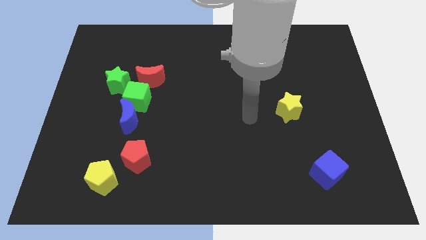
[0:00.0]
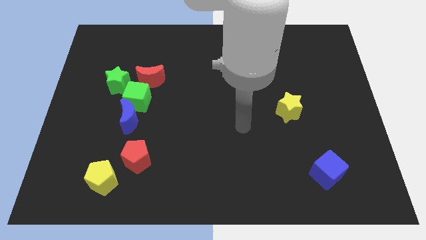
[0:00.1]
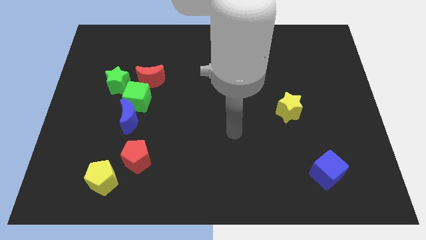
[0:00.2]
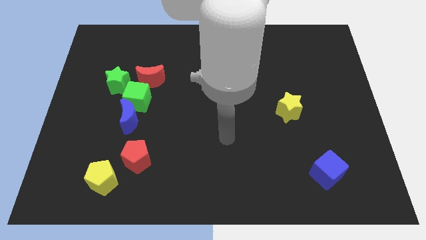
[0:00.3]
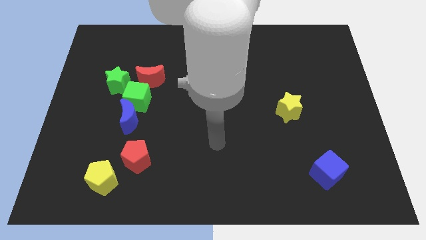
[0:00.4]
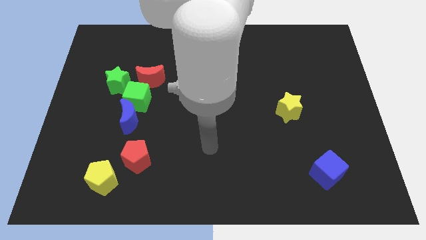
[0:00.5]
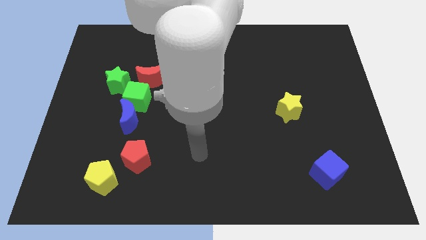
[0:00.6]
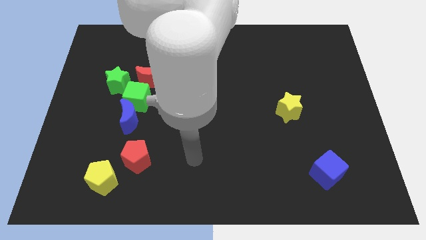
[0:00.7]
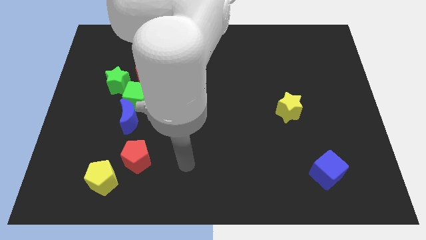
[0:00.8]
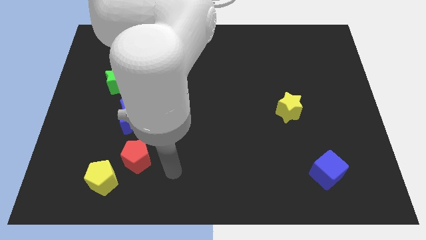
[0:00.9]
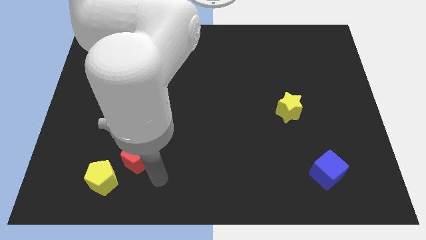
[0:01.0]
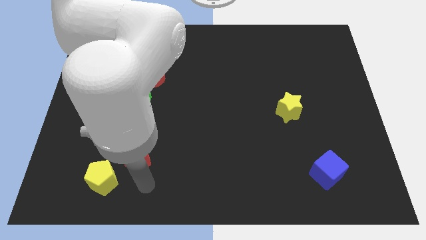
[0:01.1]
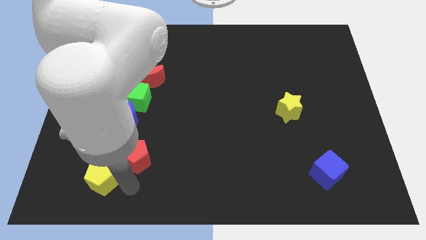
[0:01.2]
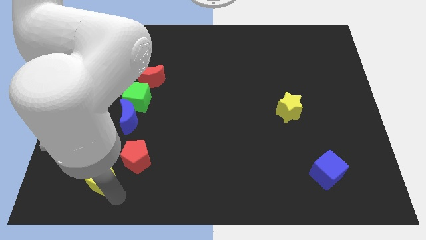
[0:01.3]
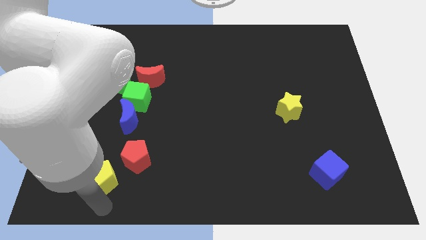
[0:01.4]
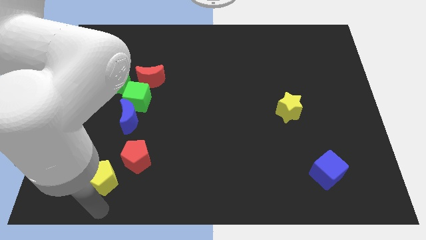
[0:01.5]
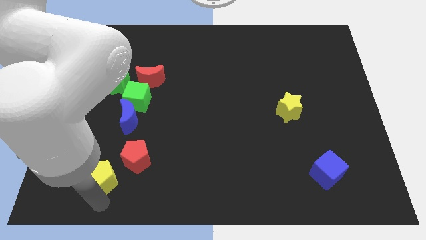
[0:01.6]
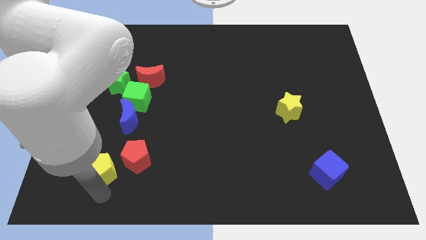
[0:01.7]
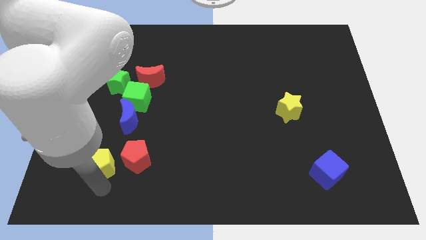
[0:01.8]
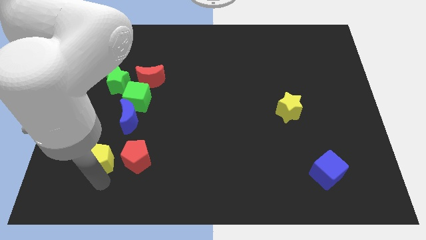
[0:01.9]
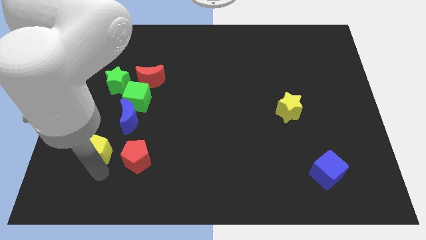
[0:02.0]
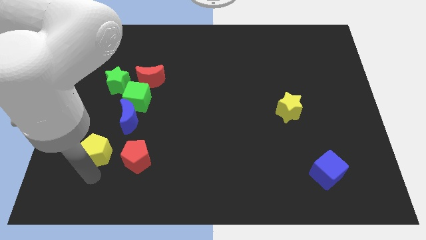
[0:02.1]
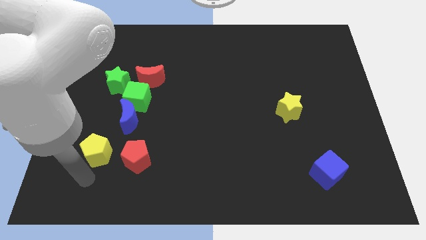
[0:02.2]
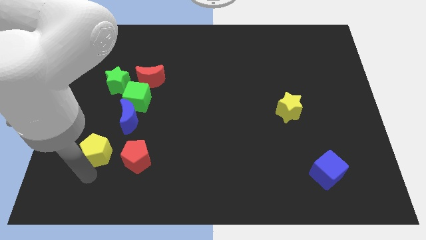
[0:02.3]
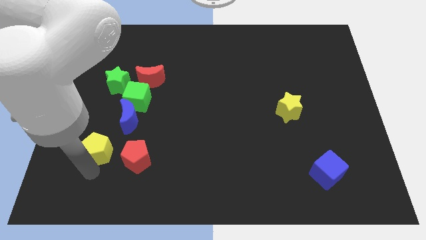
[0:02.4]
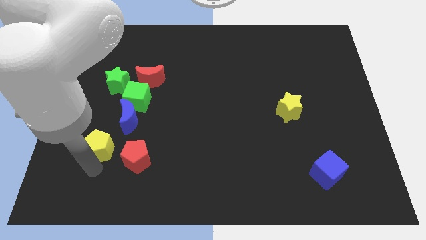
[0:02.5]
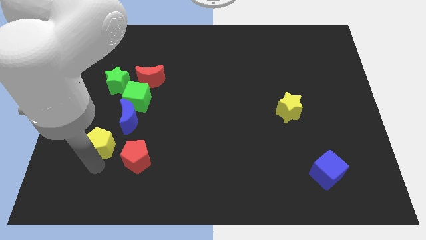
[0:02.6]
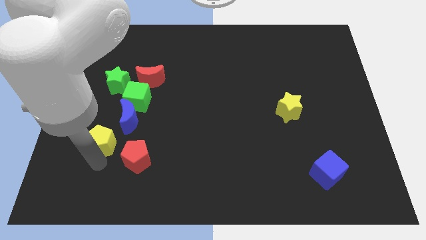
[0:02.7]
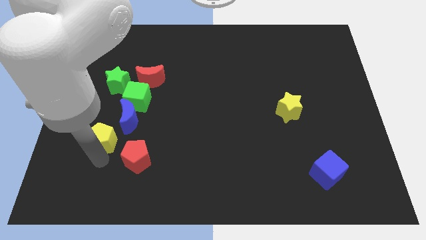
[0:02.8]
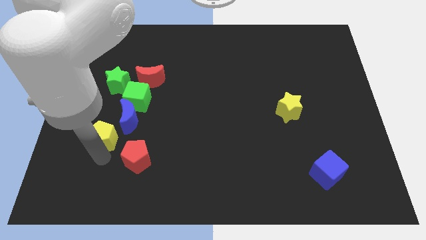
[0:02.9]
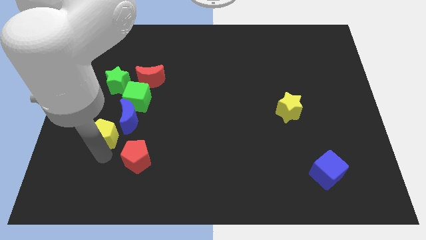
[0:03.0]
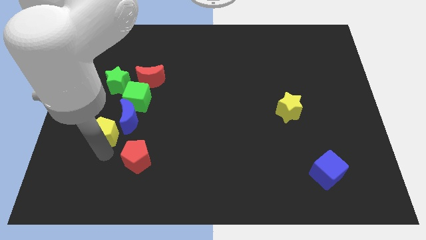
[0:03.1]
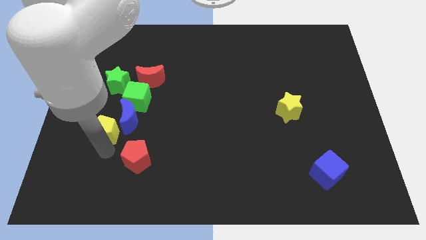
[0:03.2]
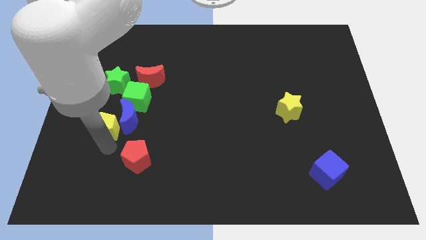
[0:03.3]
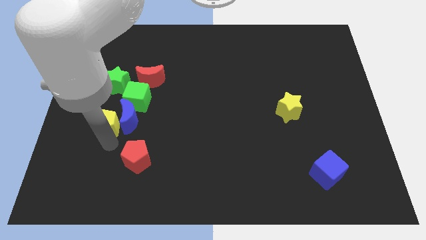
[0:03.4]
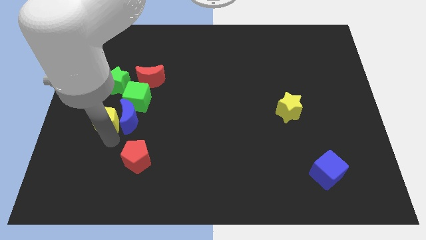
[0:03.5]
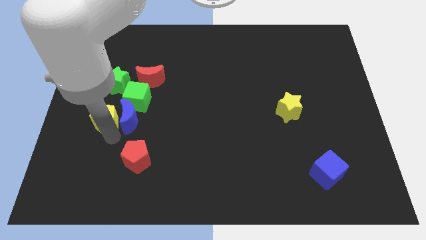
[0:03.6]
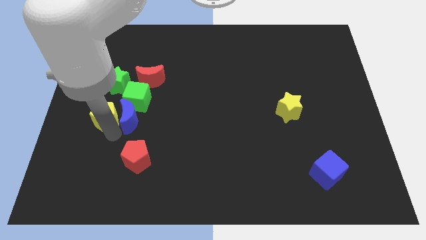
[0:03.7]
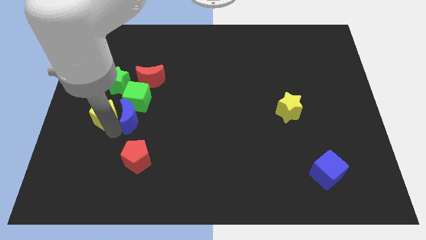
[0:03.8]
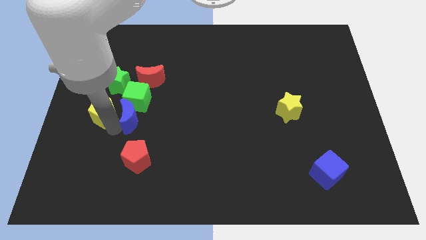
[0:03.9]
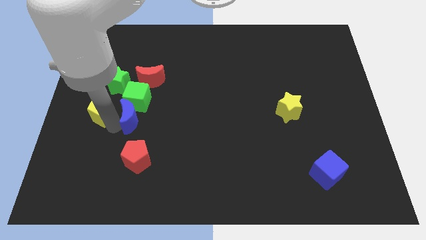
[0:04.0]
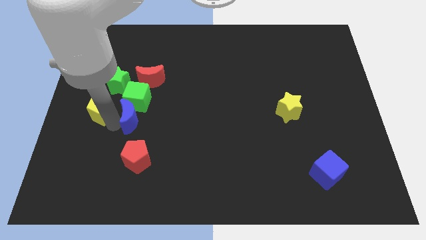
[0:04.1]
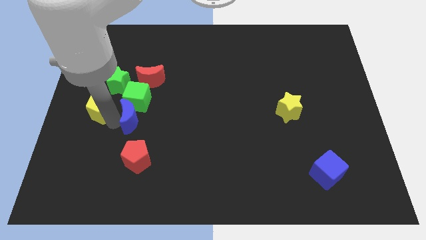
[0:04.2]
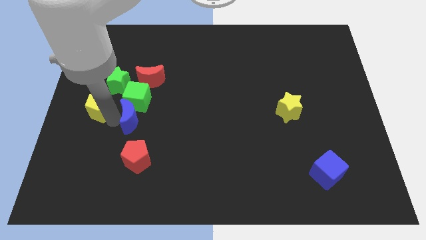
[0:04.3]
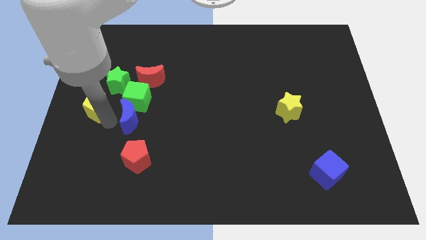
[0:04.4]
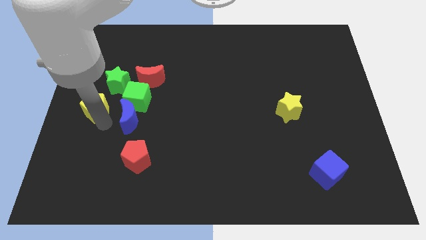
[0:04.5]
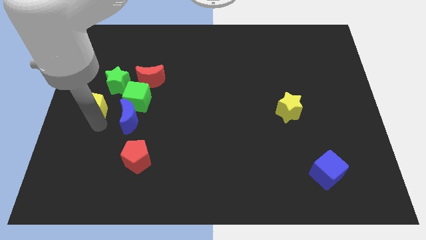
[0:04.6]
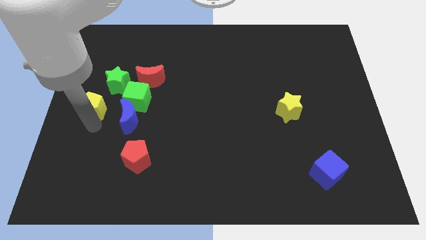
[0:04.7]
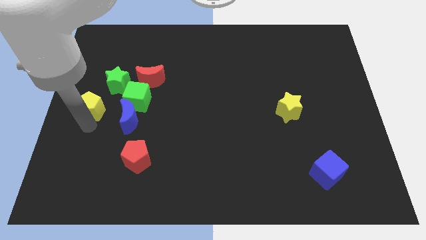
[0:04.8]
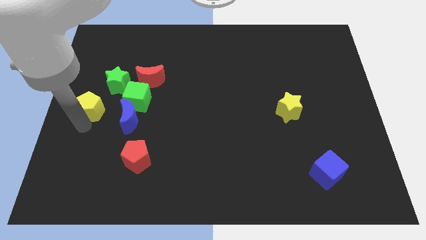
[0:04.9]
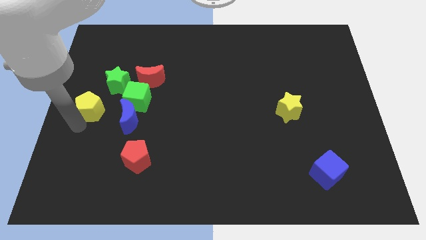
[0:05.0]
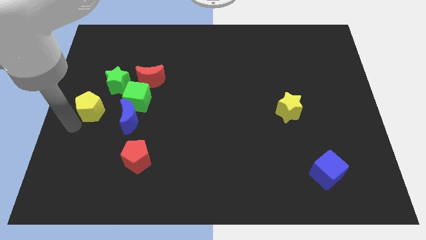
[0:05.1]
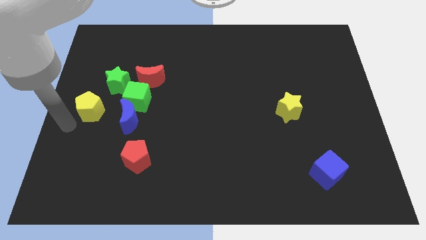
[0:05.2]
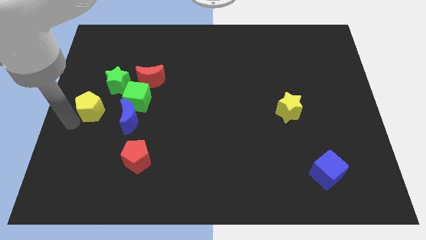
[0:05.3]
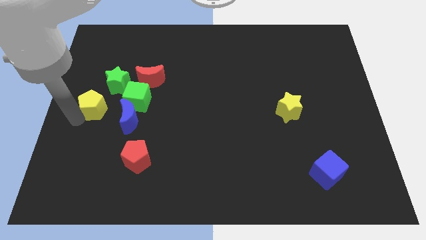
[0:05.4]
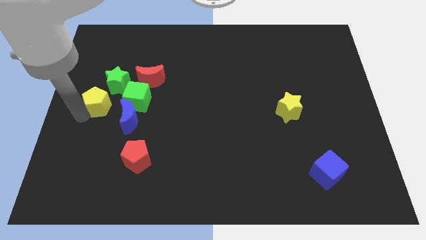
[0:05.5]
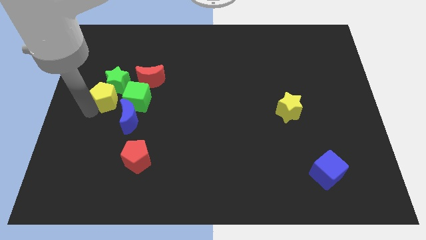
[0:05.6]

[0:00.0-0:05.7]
push the yellow pentagon close to the green star

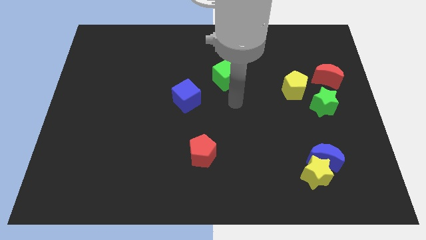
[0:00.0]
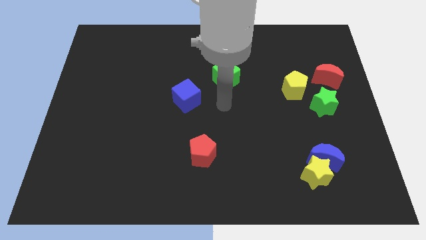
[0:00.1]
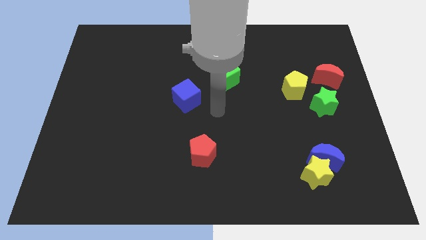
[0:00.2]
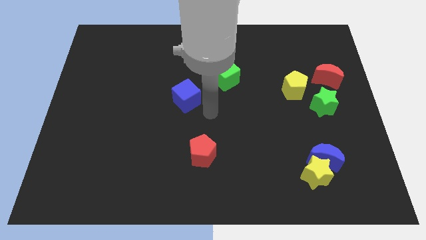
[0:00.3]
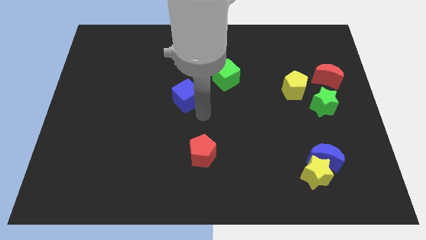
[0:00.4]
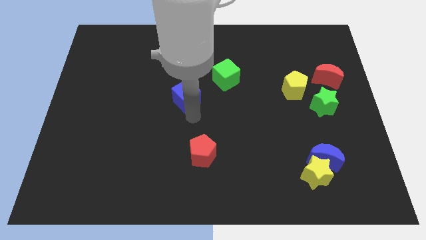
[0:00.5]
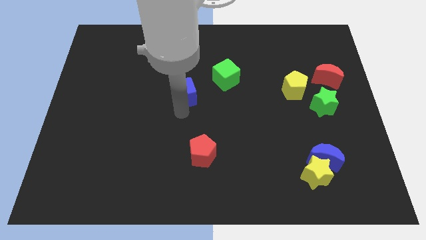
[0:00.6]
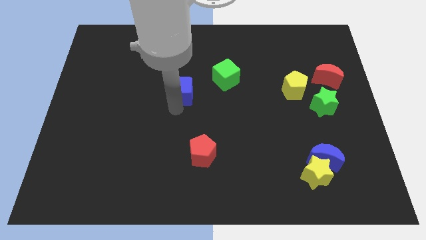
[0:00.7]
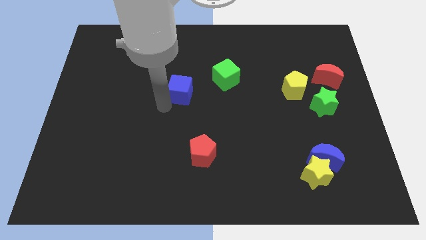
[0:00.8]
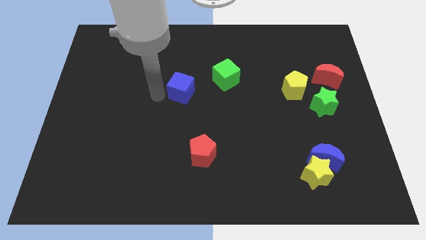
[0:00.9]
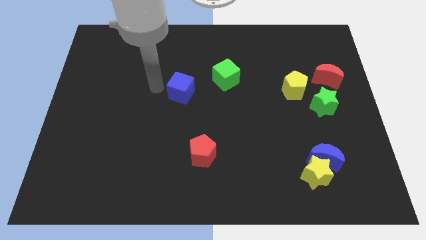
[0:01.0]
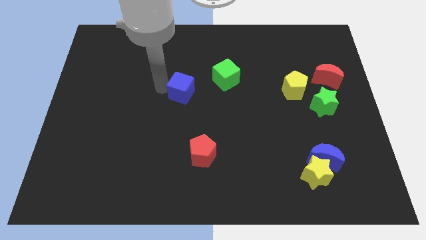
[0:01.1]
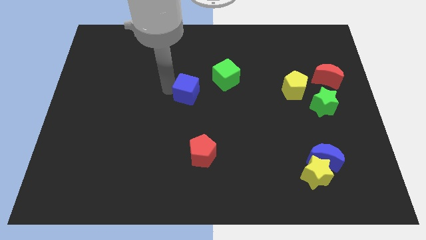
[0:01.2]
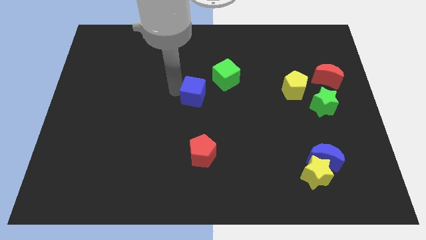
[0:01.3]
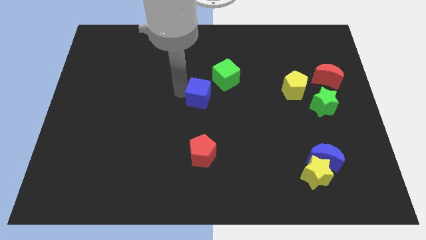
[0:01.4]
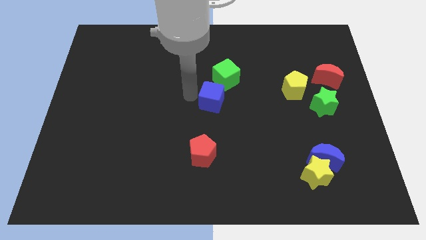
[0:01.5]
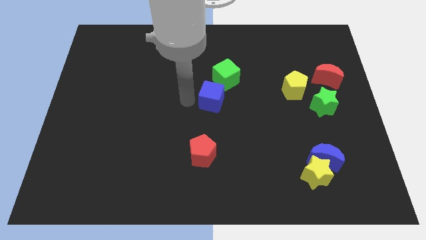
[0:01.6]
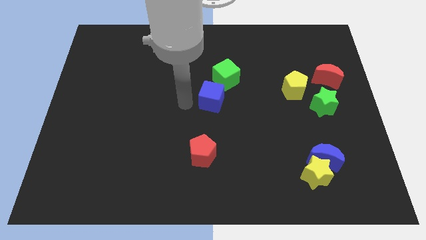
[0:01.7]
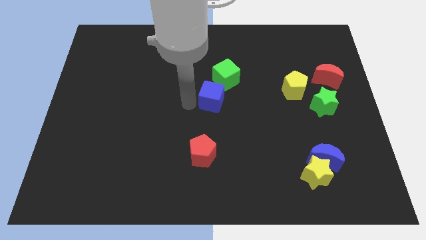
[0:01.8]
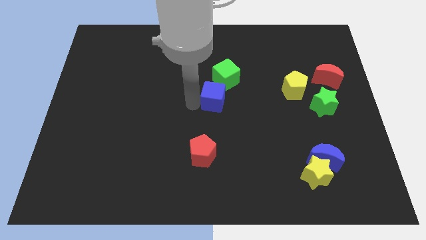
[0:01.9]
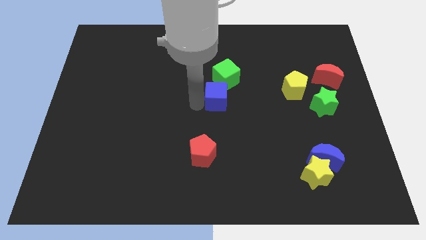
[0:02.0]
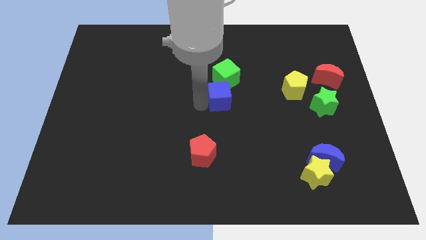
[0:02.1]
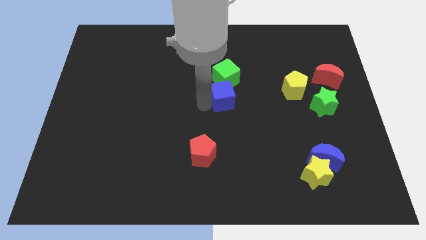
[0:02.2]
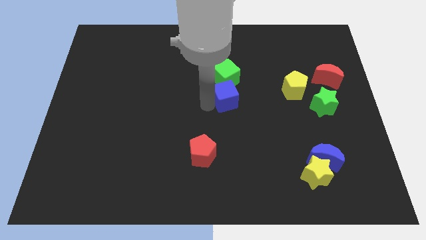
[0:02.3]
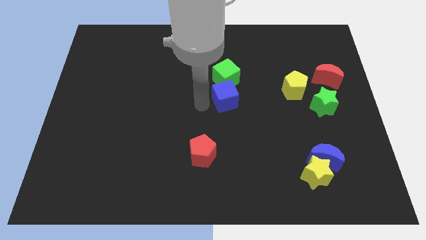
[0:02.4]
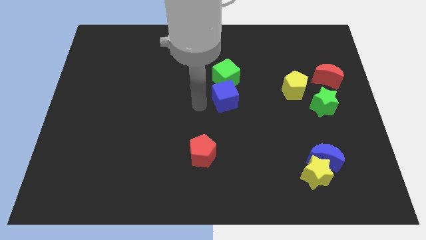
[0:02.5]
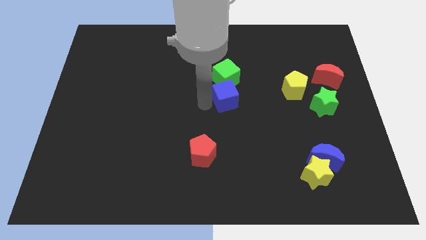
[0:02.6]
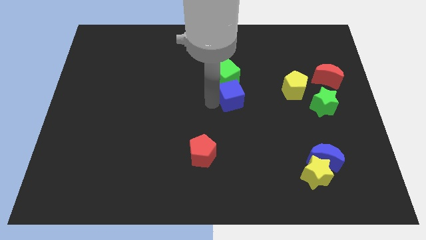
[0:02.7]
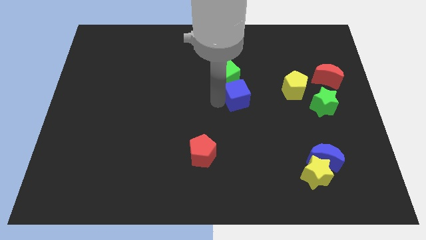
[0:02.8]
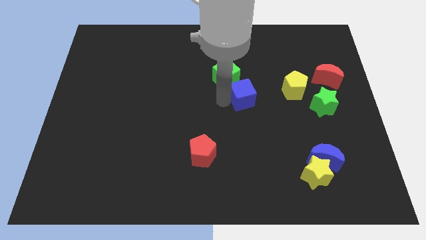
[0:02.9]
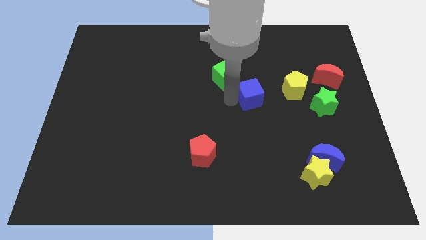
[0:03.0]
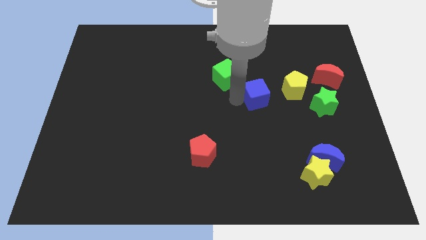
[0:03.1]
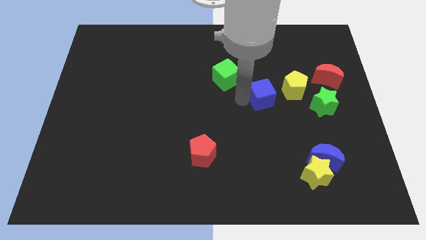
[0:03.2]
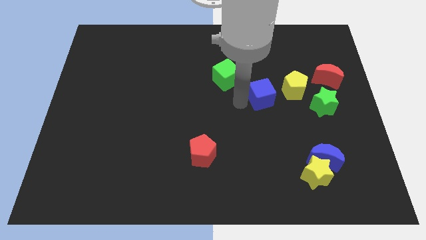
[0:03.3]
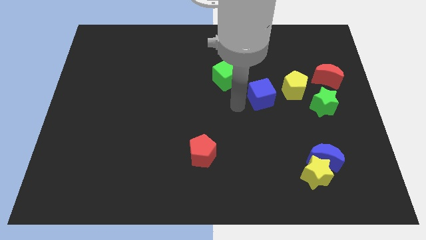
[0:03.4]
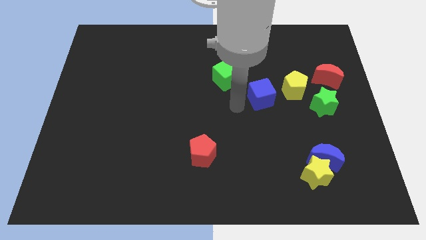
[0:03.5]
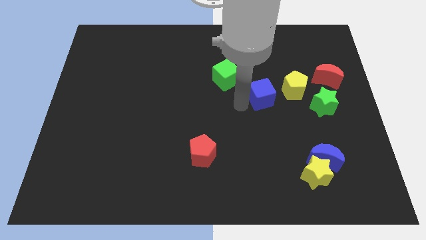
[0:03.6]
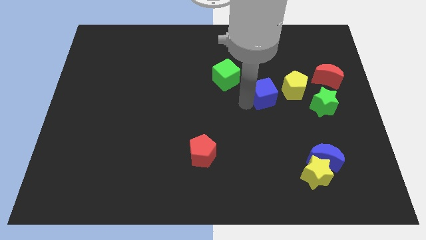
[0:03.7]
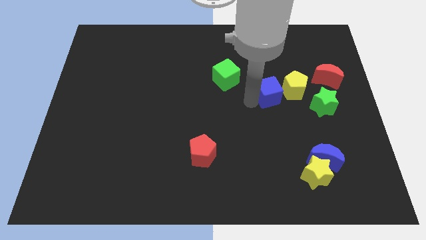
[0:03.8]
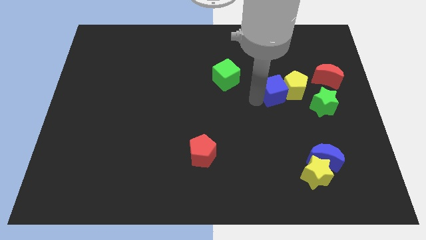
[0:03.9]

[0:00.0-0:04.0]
move the blue cube towards the yellow pentagon
